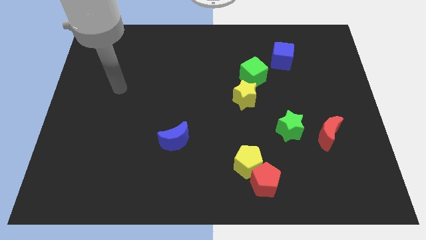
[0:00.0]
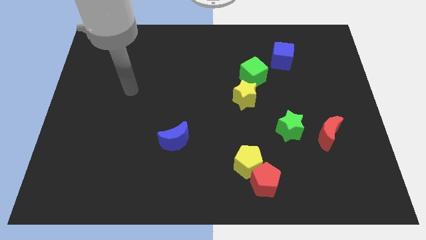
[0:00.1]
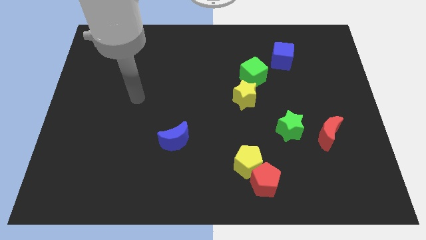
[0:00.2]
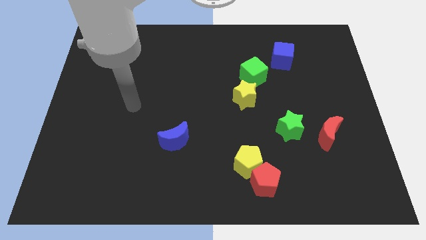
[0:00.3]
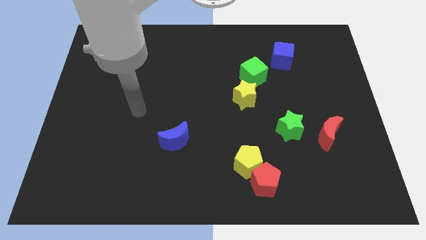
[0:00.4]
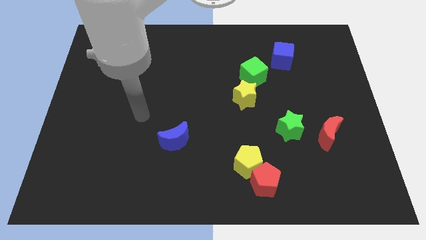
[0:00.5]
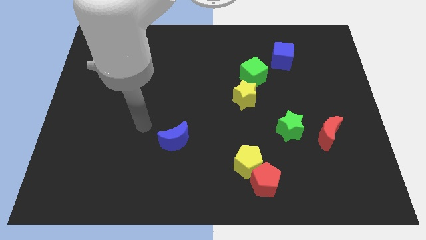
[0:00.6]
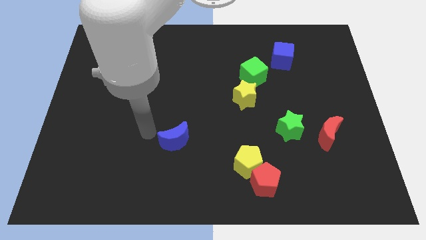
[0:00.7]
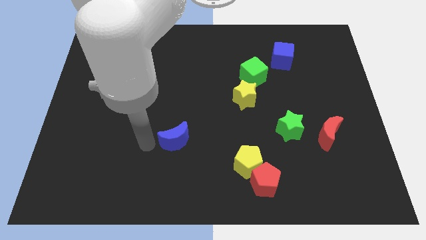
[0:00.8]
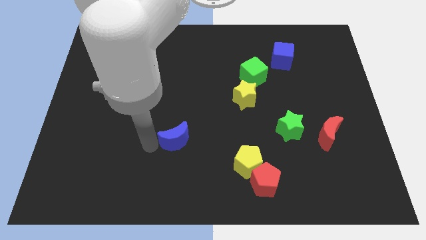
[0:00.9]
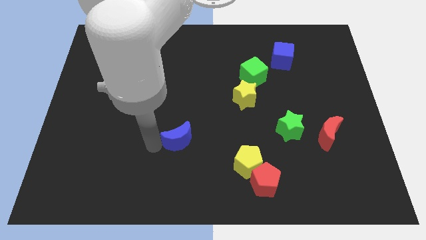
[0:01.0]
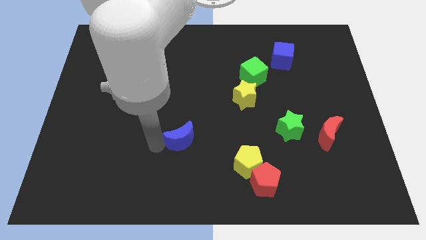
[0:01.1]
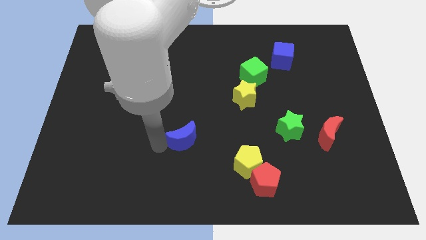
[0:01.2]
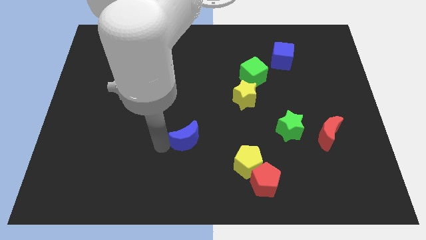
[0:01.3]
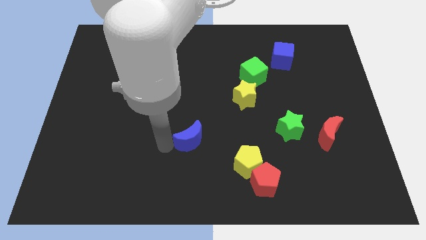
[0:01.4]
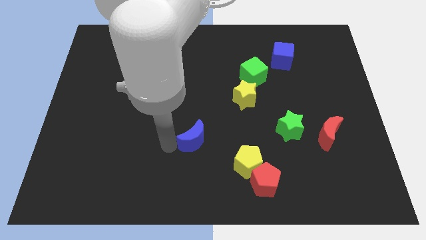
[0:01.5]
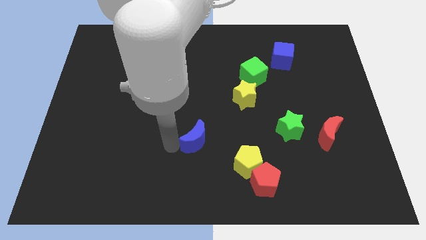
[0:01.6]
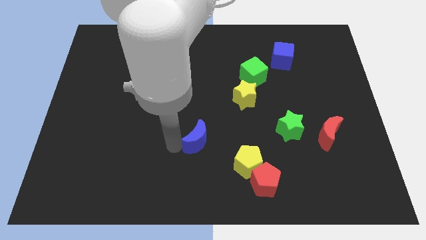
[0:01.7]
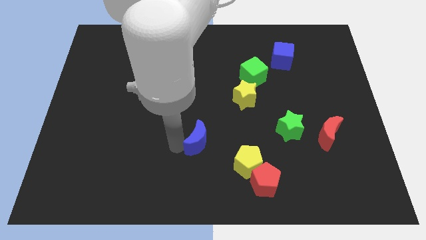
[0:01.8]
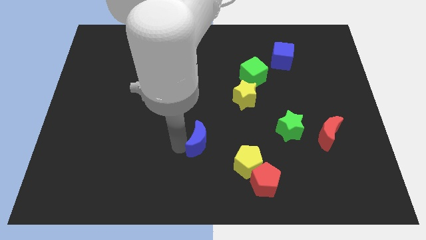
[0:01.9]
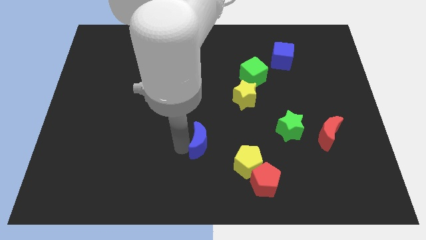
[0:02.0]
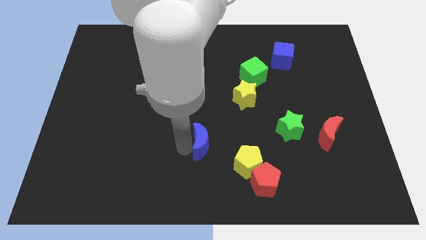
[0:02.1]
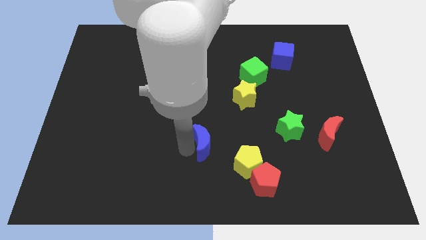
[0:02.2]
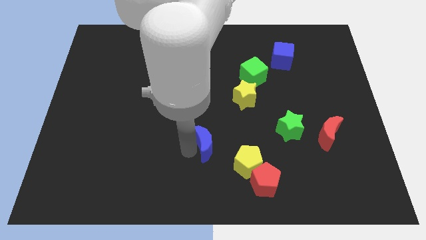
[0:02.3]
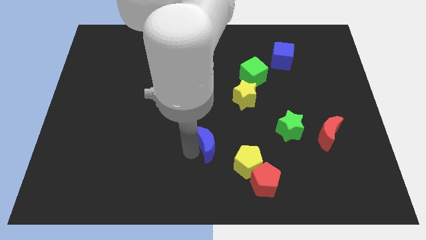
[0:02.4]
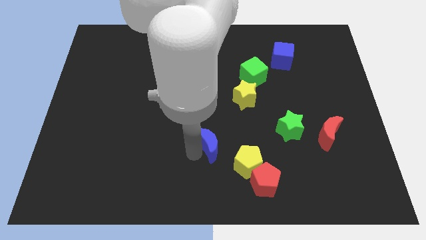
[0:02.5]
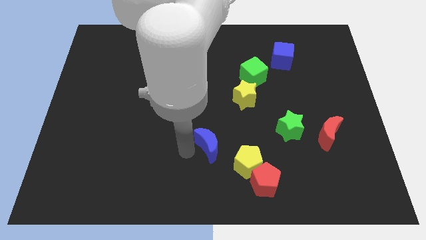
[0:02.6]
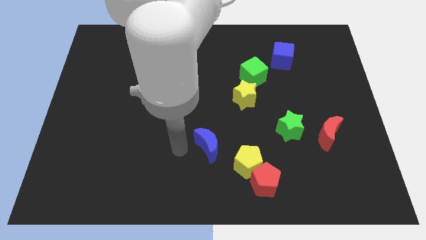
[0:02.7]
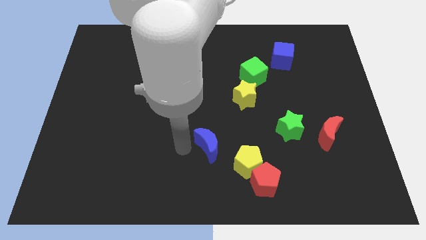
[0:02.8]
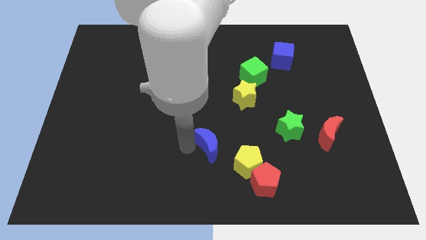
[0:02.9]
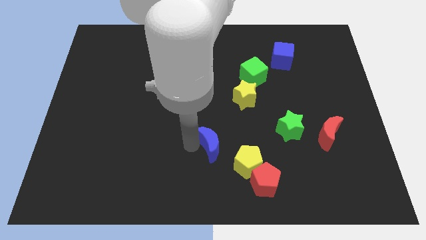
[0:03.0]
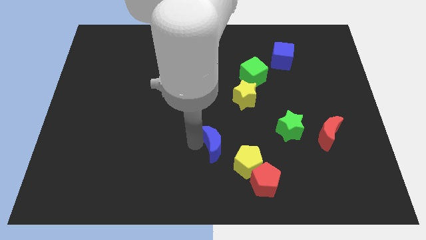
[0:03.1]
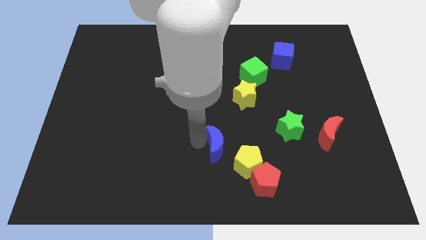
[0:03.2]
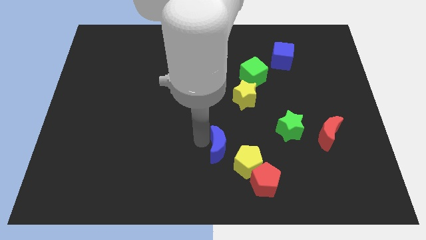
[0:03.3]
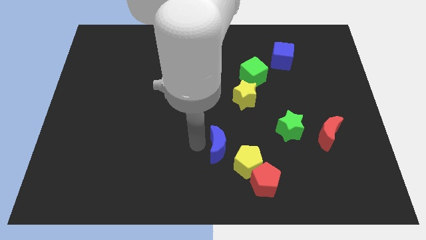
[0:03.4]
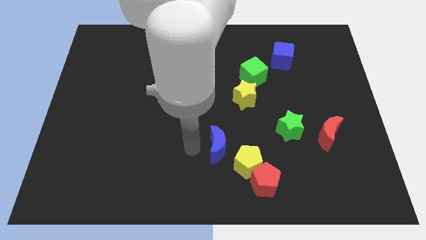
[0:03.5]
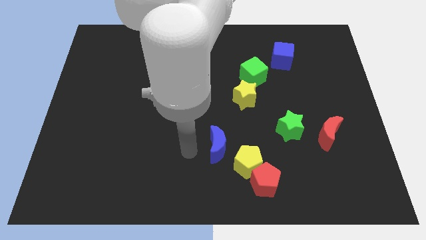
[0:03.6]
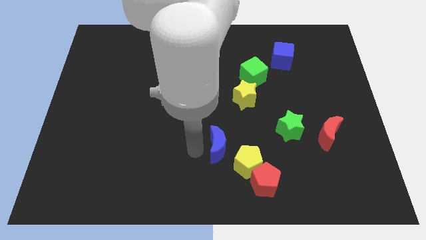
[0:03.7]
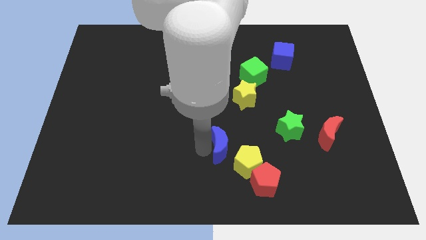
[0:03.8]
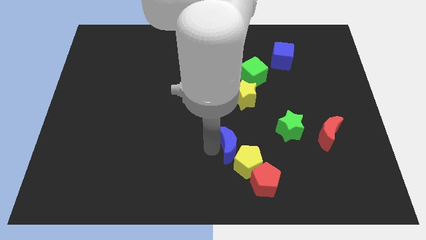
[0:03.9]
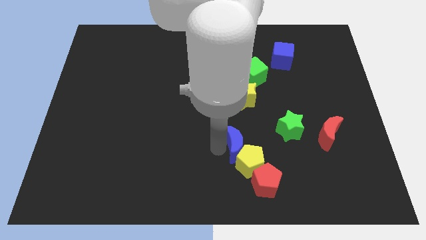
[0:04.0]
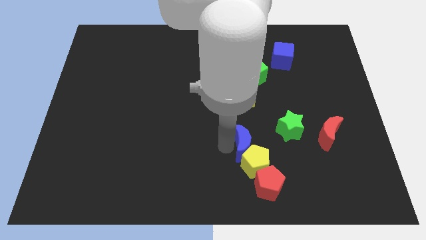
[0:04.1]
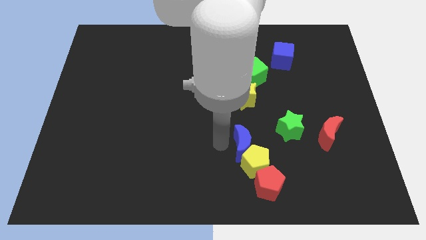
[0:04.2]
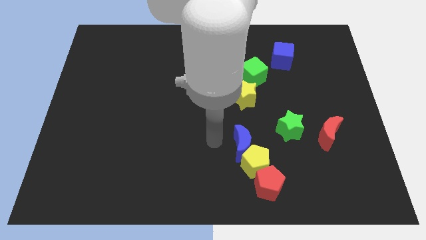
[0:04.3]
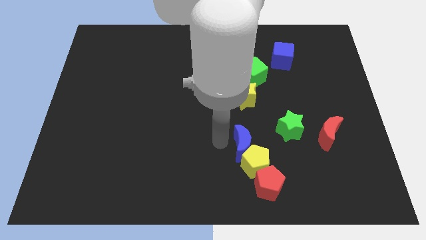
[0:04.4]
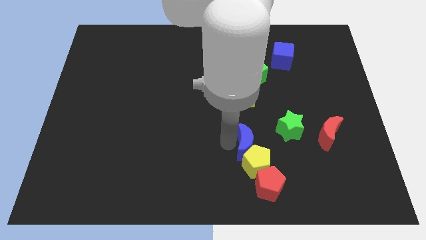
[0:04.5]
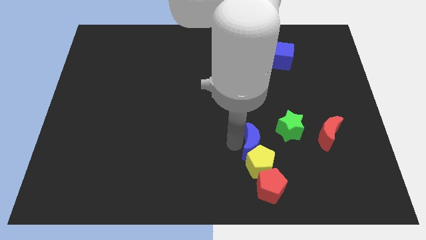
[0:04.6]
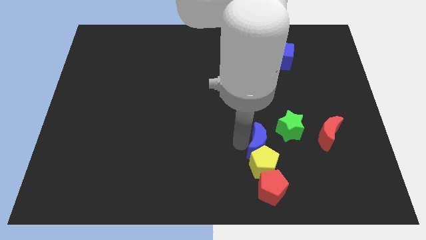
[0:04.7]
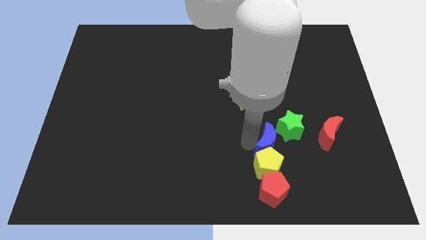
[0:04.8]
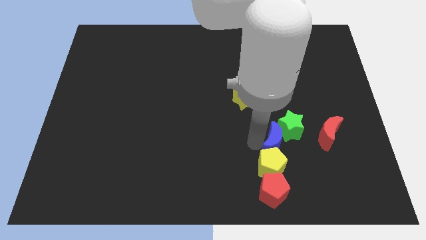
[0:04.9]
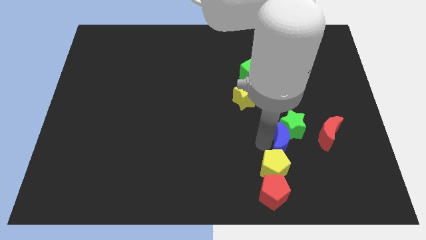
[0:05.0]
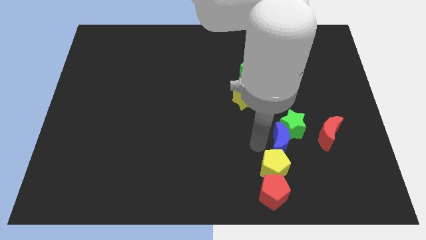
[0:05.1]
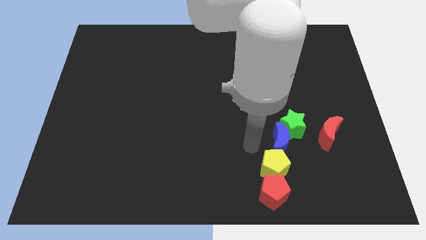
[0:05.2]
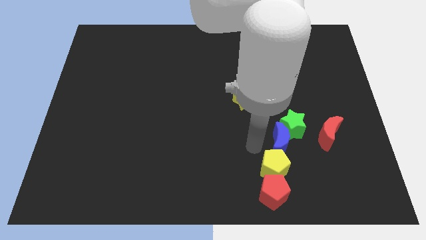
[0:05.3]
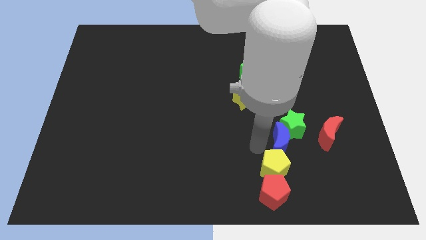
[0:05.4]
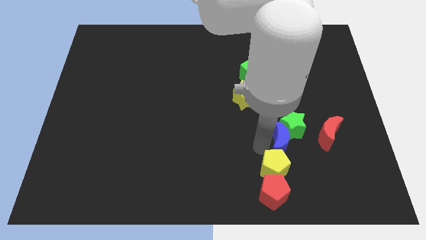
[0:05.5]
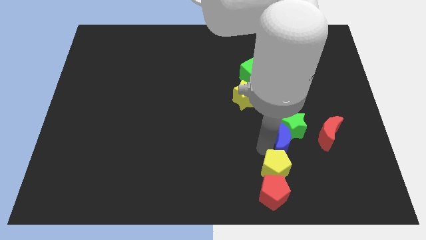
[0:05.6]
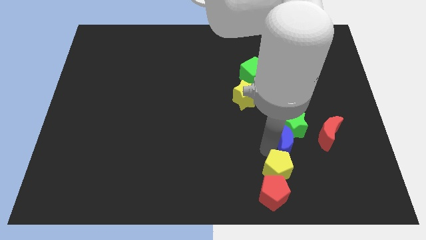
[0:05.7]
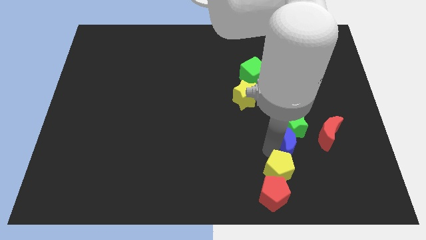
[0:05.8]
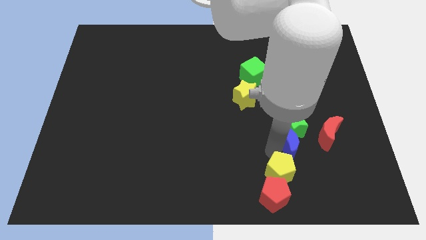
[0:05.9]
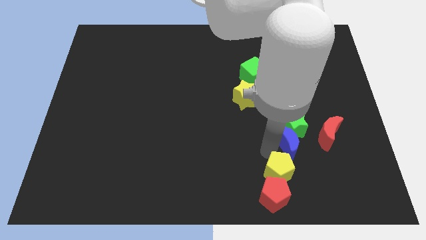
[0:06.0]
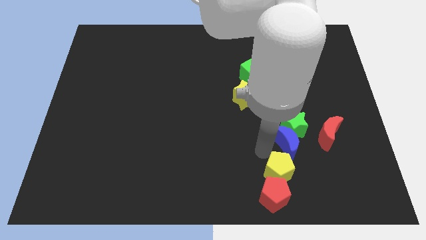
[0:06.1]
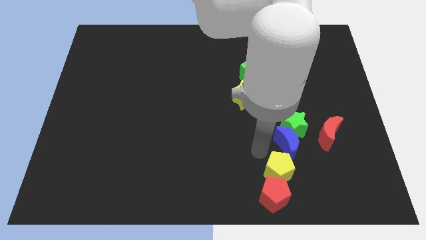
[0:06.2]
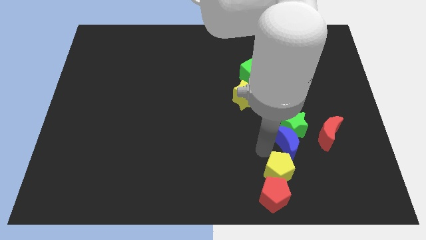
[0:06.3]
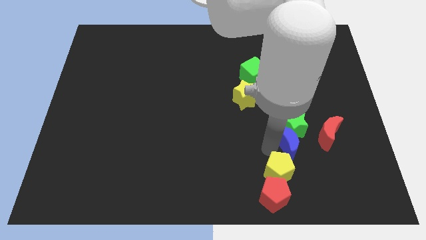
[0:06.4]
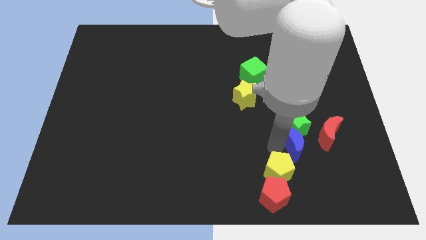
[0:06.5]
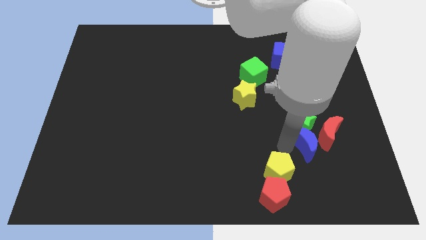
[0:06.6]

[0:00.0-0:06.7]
put the blue moon close to the red moon
